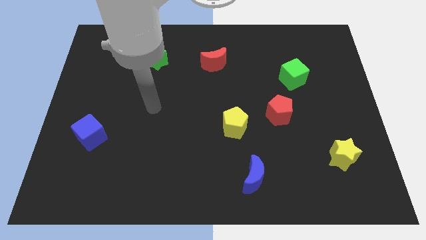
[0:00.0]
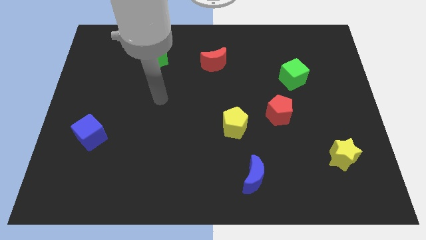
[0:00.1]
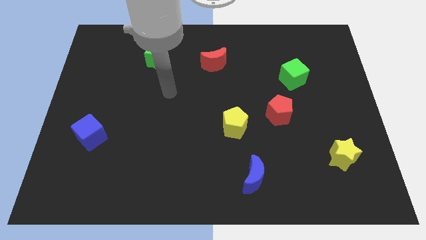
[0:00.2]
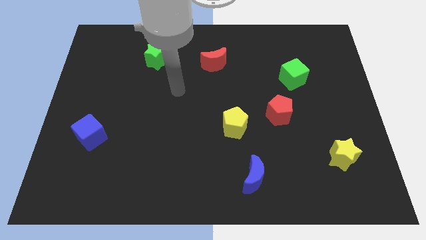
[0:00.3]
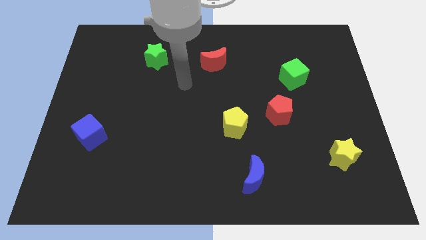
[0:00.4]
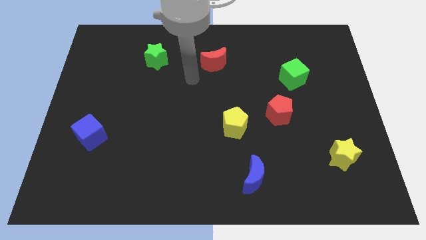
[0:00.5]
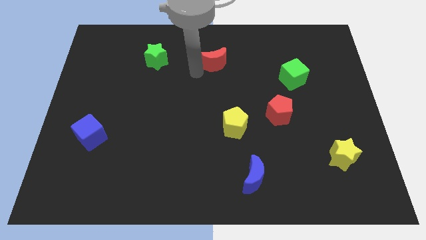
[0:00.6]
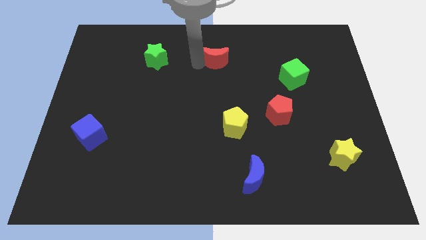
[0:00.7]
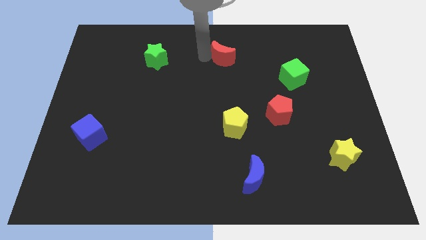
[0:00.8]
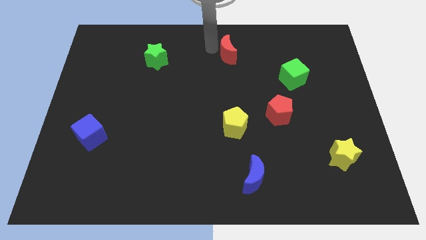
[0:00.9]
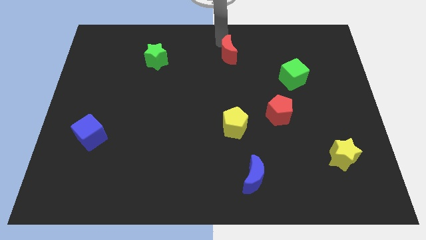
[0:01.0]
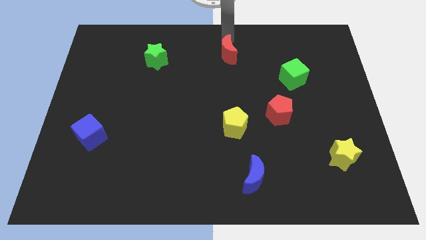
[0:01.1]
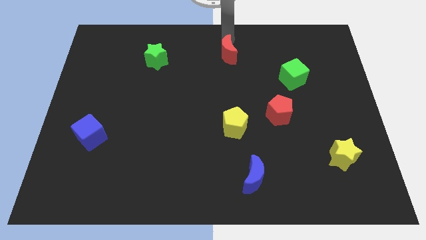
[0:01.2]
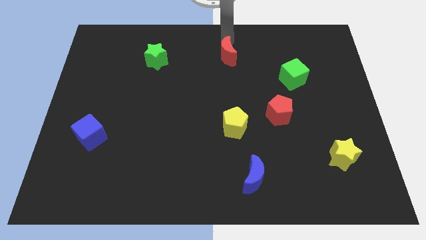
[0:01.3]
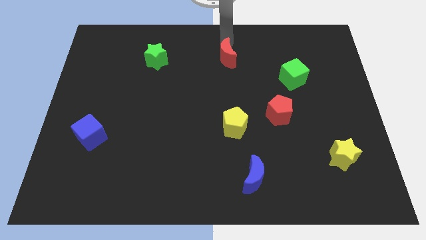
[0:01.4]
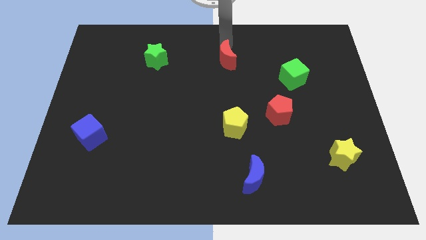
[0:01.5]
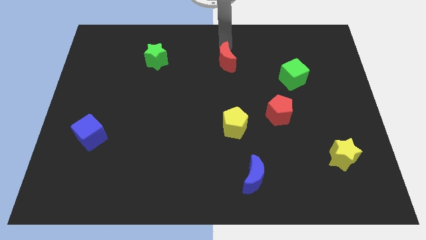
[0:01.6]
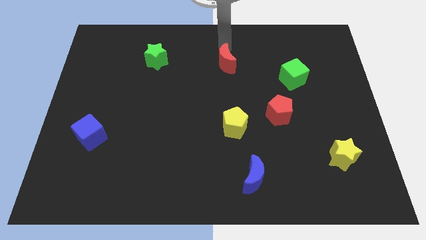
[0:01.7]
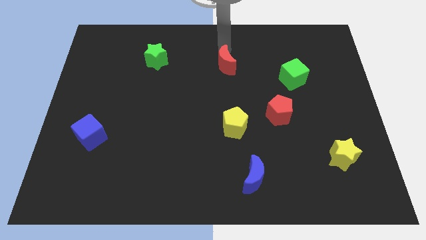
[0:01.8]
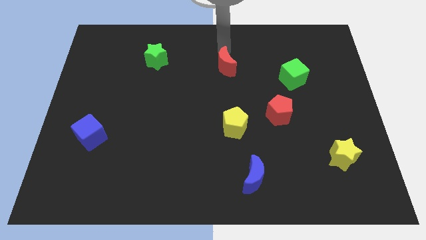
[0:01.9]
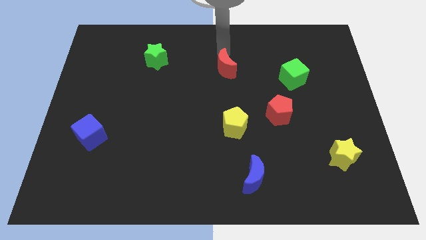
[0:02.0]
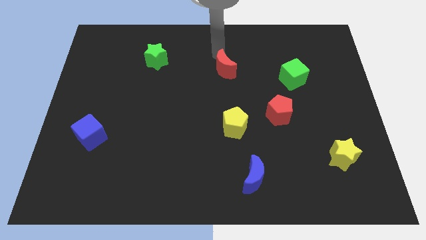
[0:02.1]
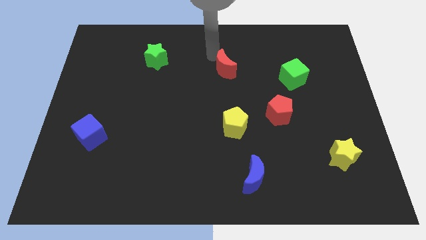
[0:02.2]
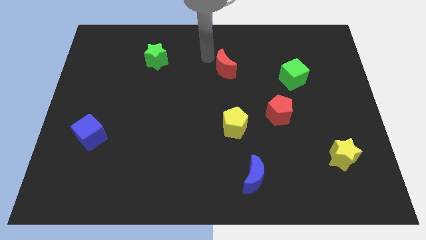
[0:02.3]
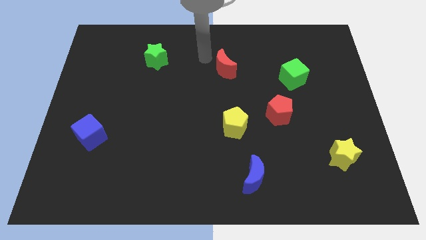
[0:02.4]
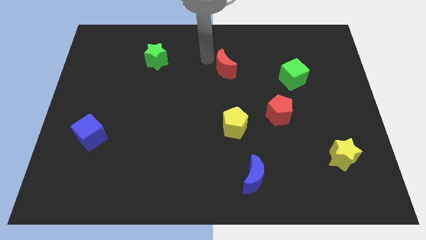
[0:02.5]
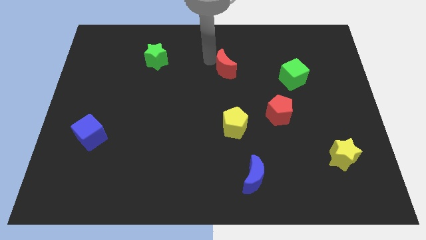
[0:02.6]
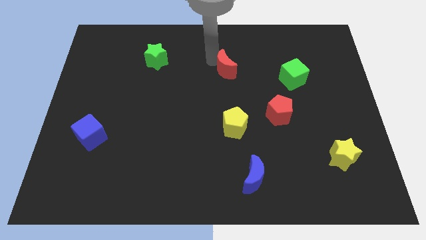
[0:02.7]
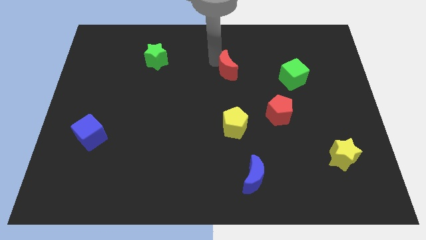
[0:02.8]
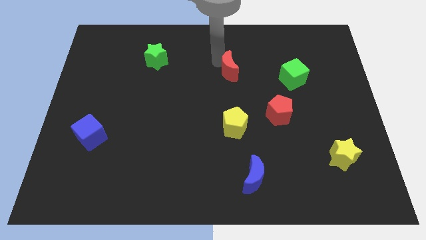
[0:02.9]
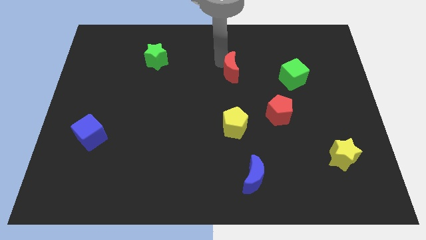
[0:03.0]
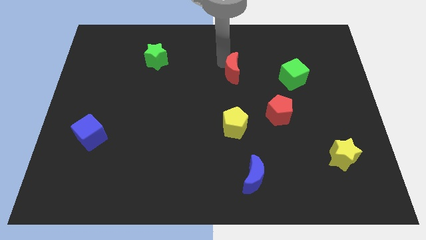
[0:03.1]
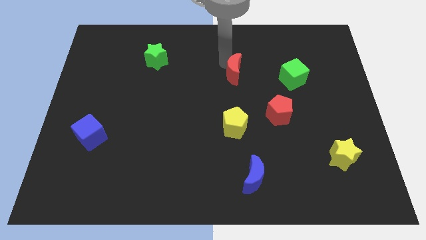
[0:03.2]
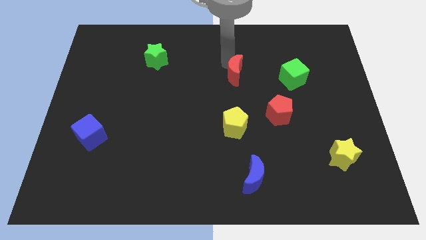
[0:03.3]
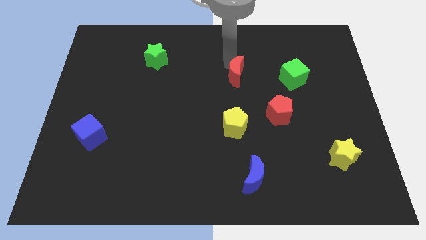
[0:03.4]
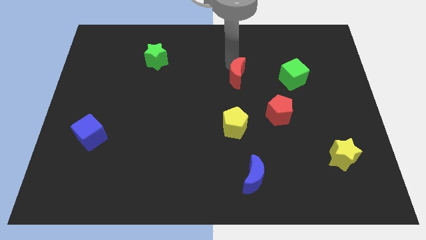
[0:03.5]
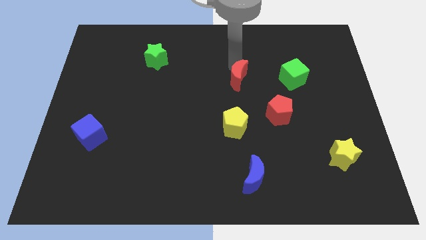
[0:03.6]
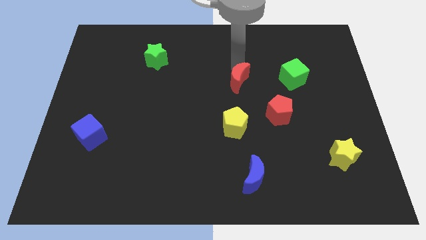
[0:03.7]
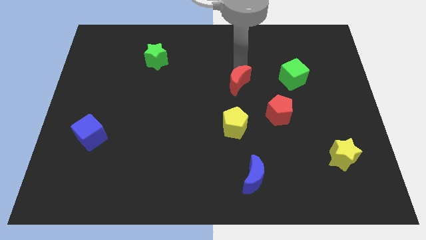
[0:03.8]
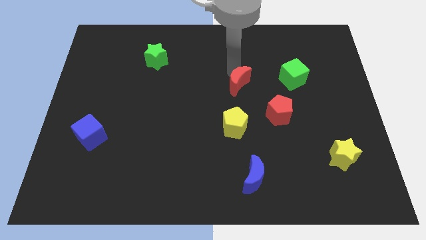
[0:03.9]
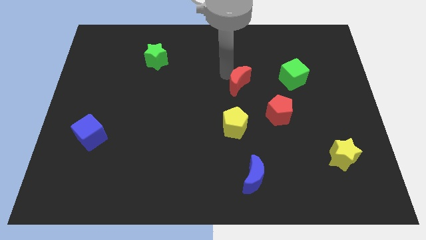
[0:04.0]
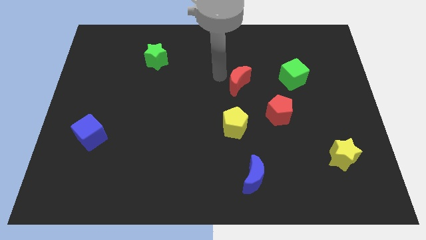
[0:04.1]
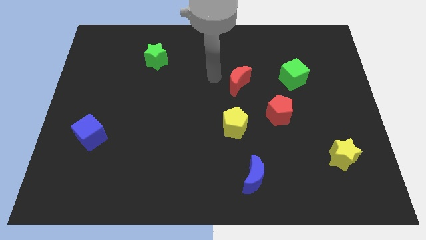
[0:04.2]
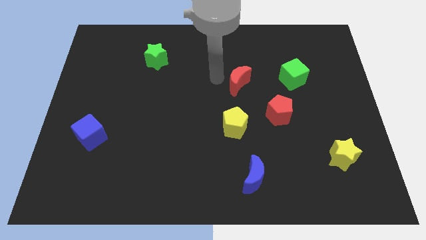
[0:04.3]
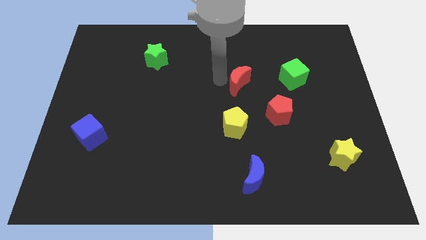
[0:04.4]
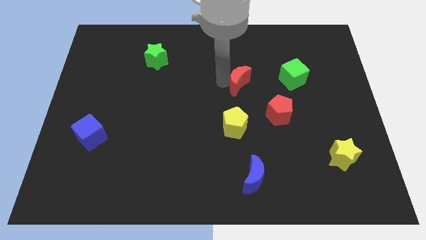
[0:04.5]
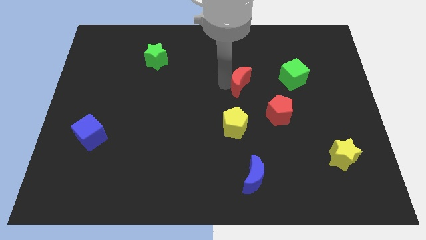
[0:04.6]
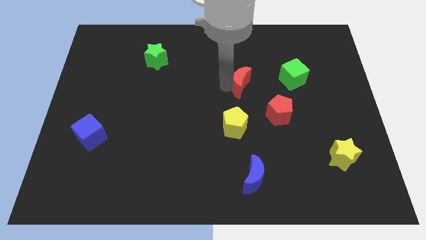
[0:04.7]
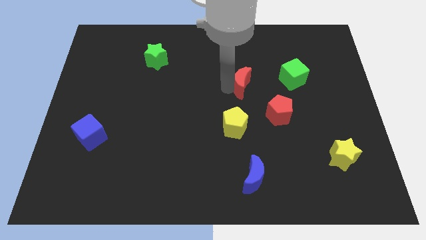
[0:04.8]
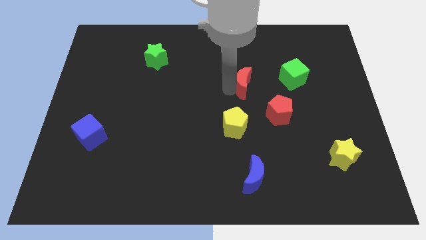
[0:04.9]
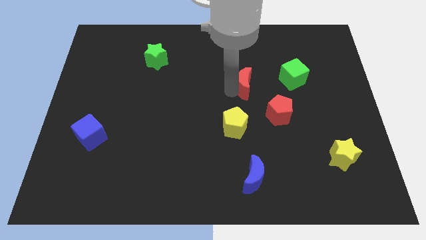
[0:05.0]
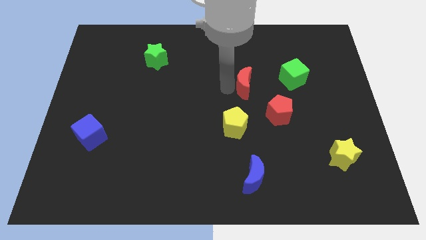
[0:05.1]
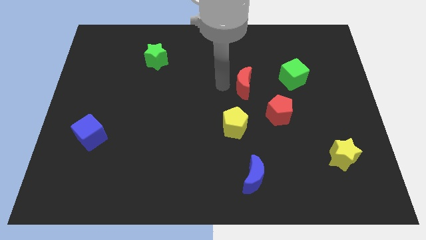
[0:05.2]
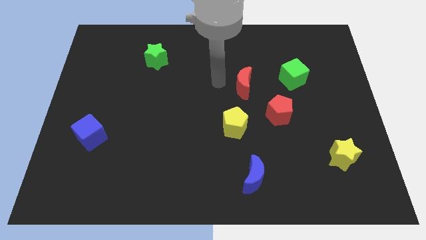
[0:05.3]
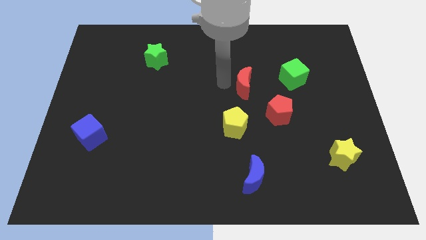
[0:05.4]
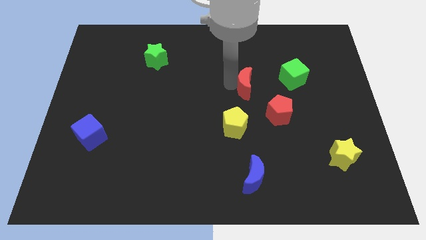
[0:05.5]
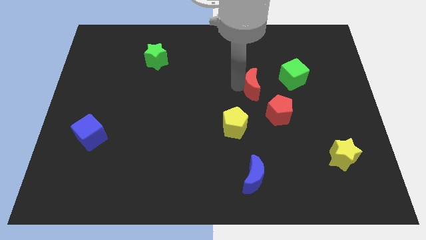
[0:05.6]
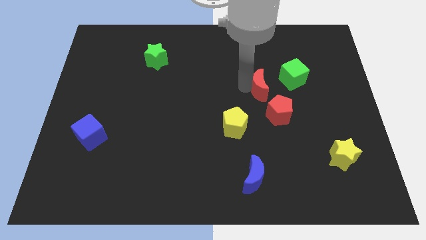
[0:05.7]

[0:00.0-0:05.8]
put the red moon to the top side of the red pentagon

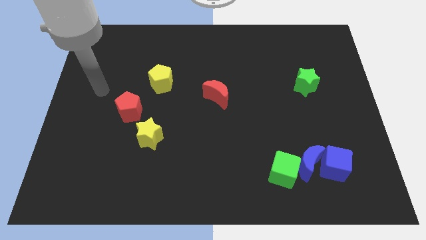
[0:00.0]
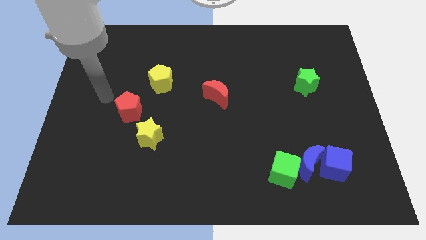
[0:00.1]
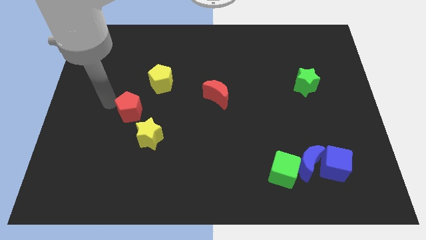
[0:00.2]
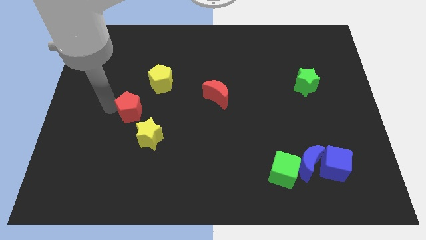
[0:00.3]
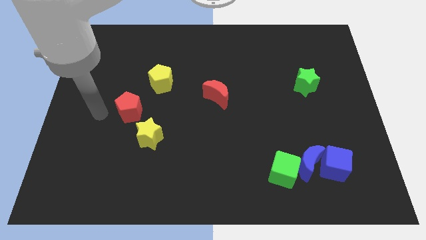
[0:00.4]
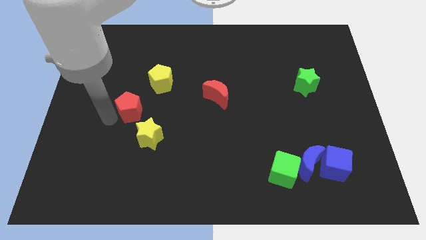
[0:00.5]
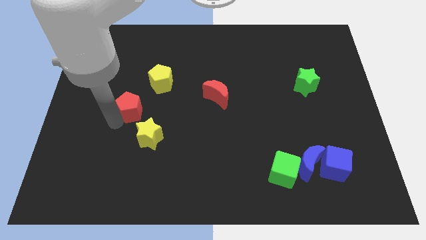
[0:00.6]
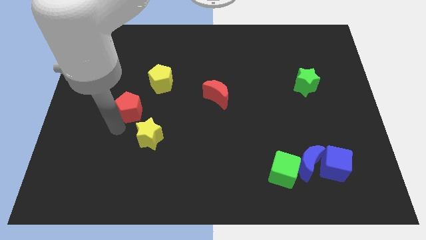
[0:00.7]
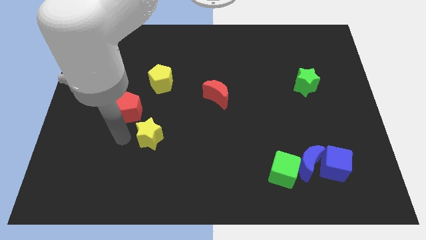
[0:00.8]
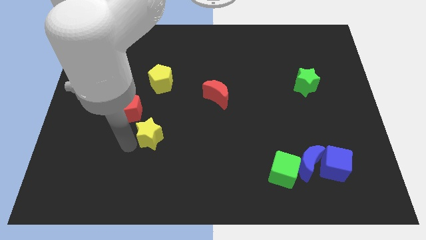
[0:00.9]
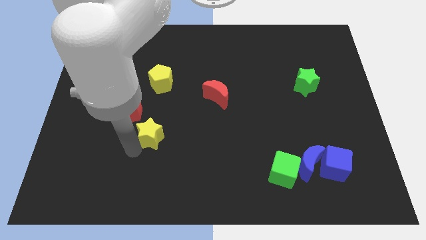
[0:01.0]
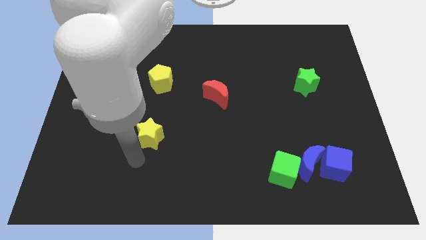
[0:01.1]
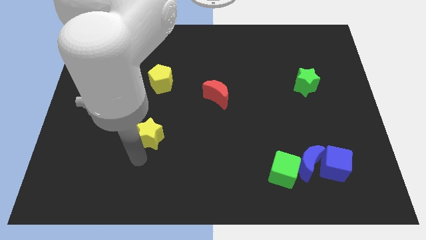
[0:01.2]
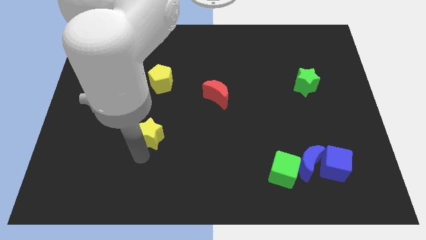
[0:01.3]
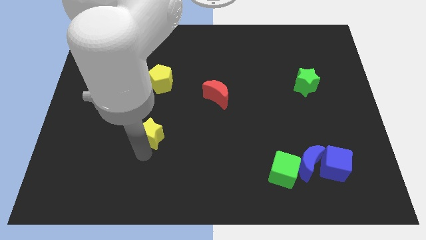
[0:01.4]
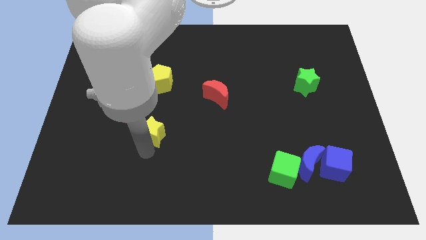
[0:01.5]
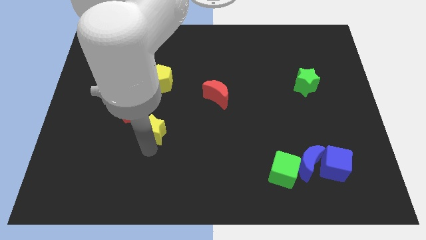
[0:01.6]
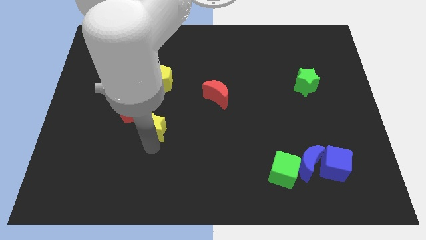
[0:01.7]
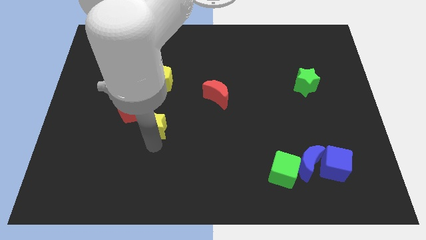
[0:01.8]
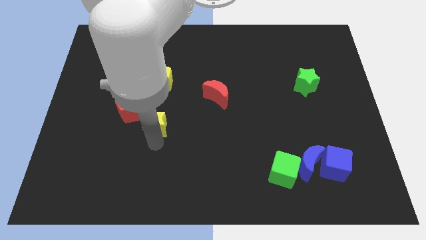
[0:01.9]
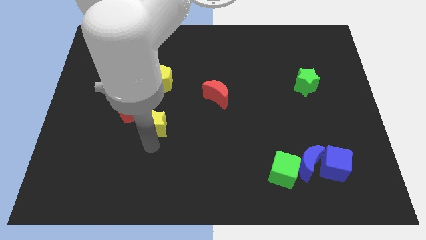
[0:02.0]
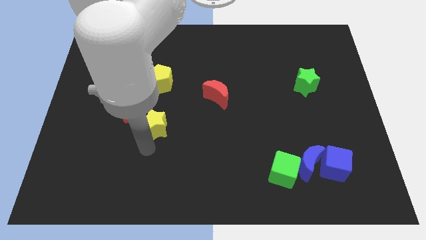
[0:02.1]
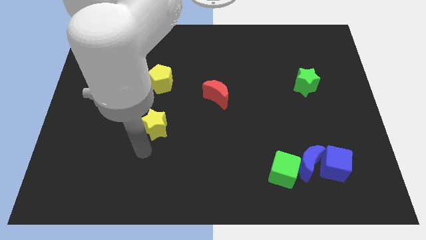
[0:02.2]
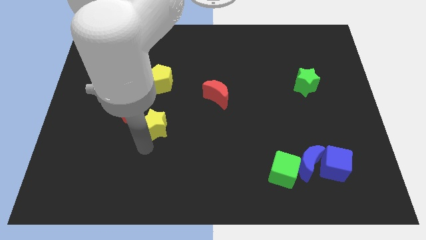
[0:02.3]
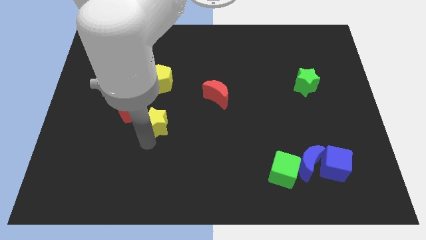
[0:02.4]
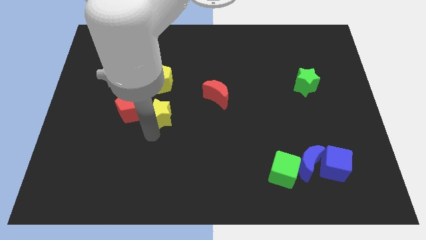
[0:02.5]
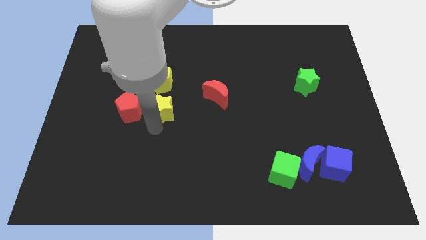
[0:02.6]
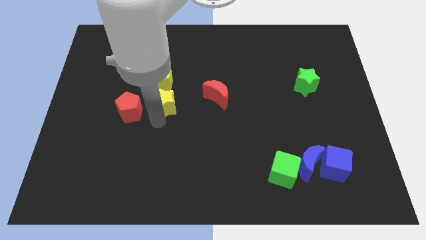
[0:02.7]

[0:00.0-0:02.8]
push the yellow star to the left of the red moon
